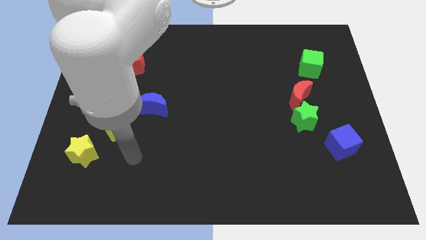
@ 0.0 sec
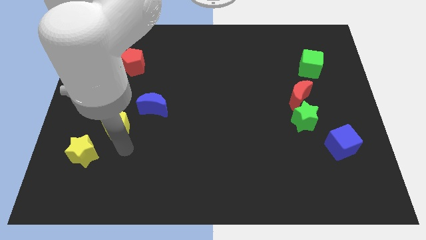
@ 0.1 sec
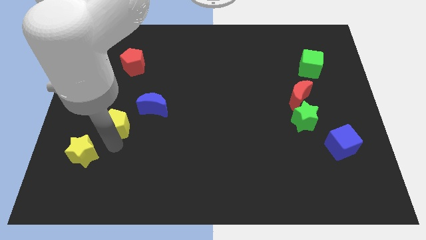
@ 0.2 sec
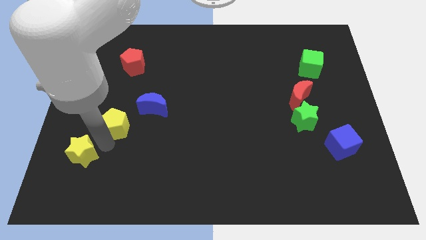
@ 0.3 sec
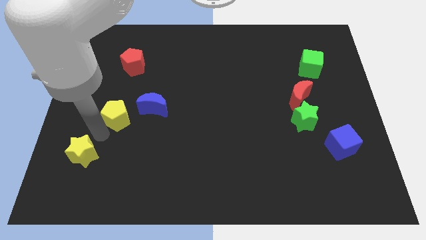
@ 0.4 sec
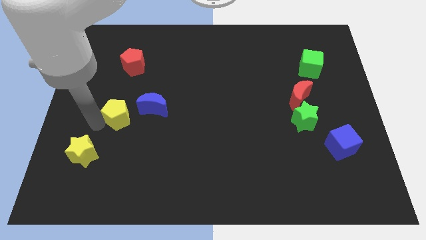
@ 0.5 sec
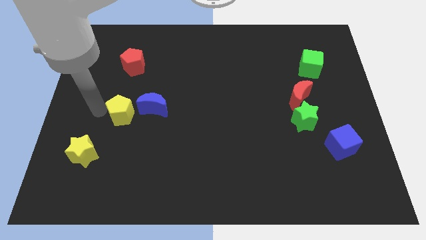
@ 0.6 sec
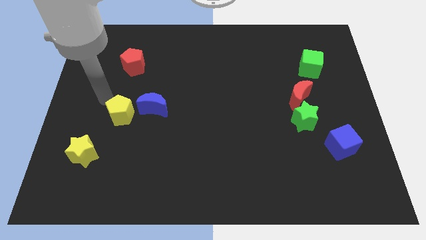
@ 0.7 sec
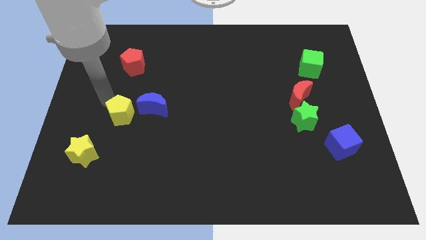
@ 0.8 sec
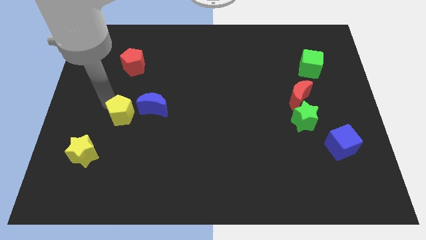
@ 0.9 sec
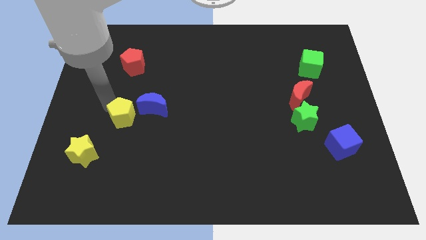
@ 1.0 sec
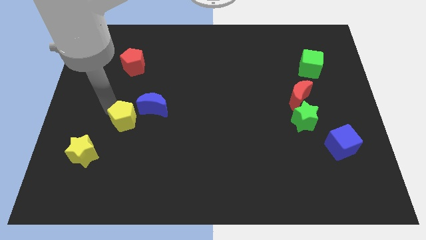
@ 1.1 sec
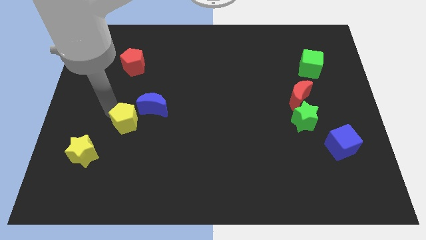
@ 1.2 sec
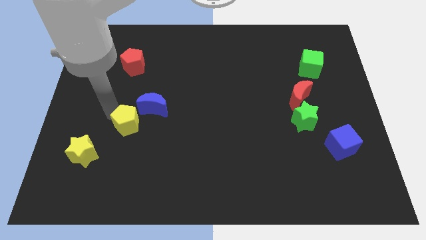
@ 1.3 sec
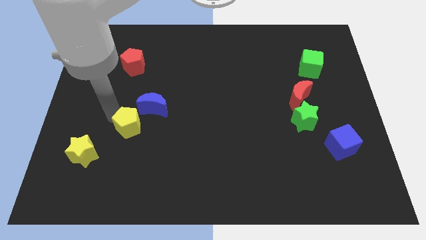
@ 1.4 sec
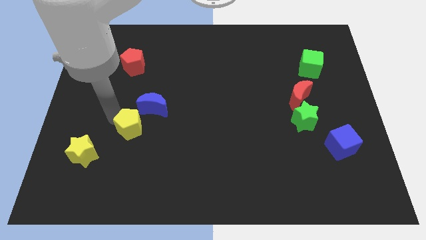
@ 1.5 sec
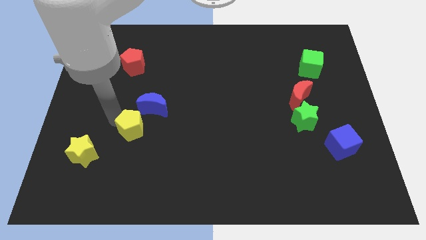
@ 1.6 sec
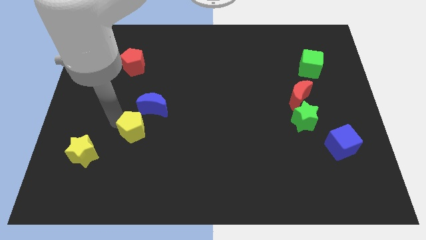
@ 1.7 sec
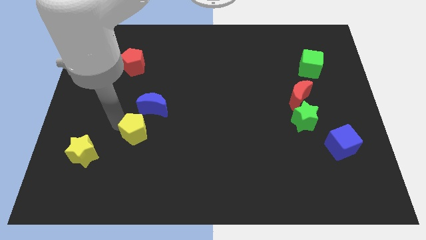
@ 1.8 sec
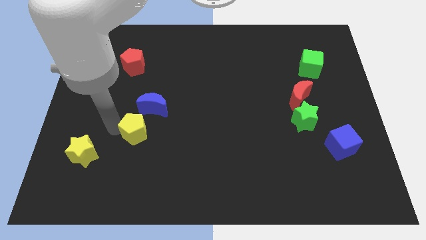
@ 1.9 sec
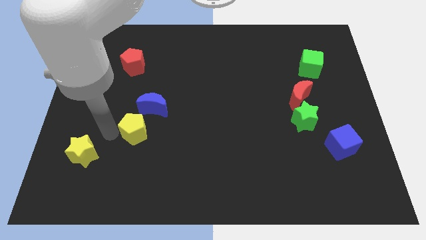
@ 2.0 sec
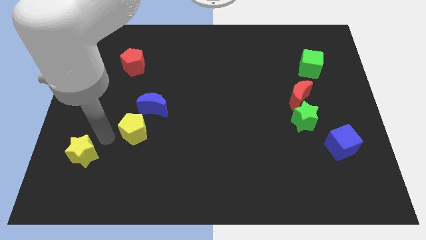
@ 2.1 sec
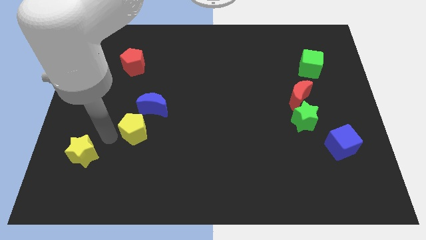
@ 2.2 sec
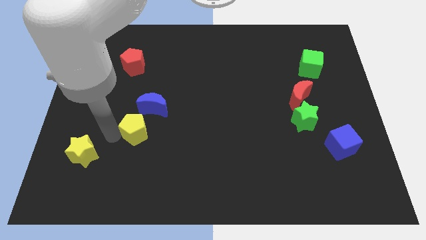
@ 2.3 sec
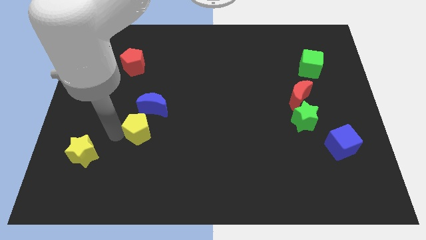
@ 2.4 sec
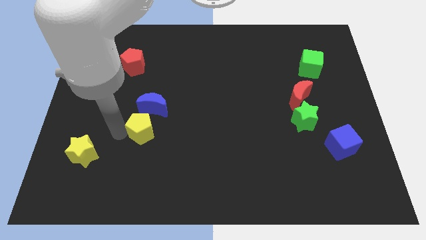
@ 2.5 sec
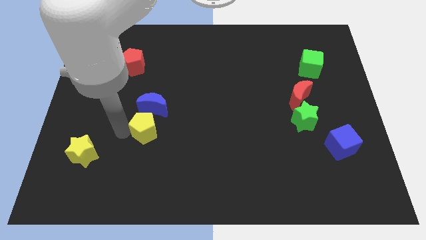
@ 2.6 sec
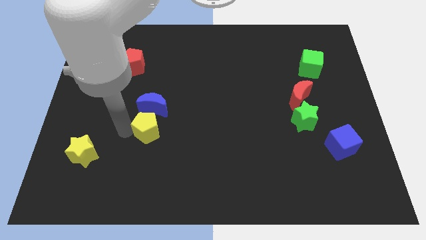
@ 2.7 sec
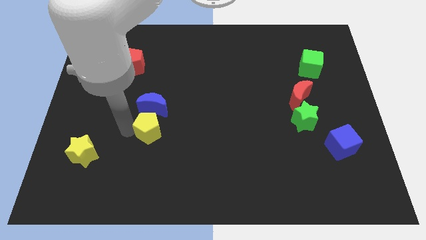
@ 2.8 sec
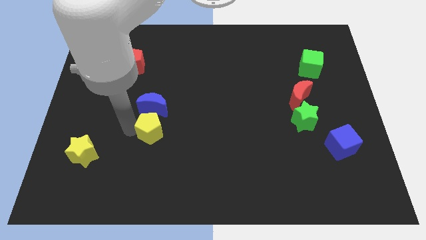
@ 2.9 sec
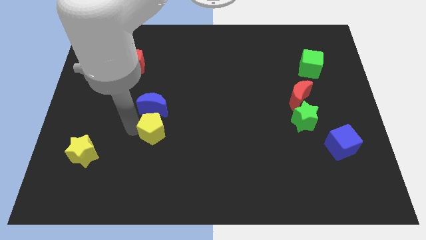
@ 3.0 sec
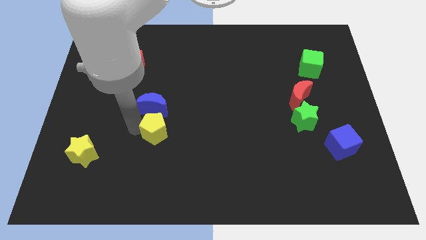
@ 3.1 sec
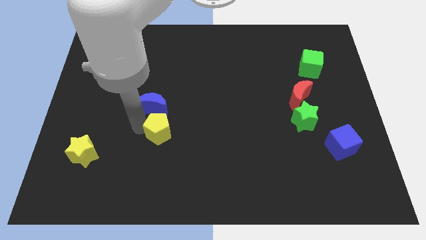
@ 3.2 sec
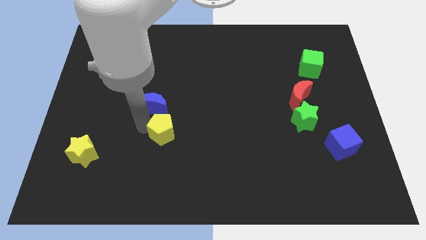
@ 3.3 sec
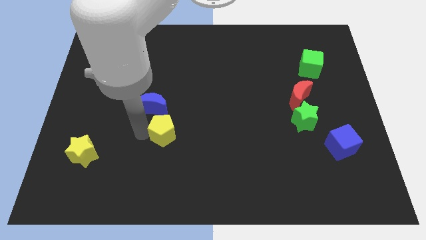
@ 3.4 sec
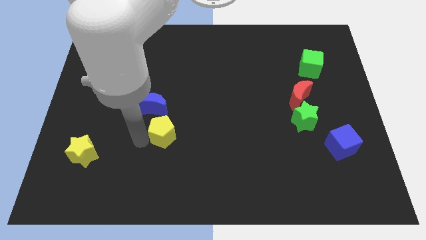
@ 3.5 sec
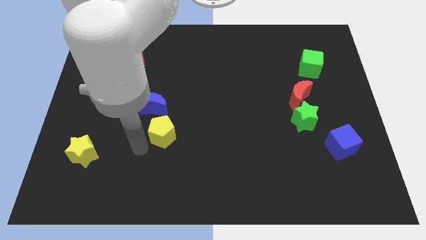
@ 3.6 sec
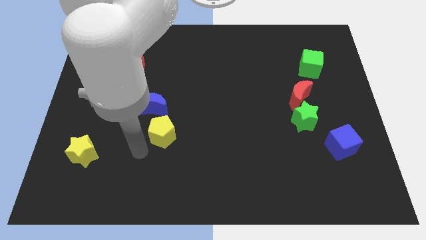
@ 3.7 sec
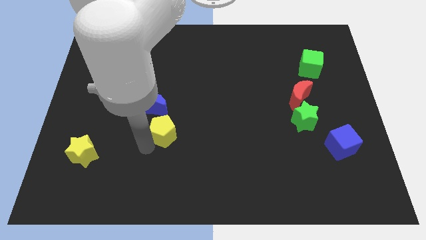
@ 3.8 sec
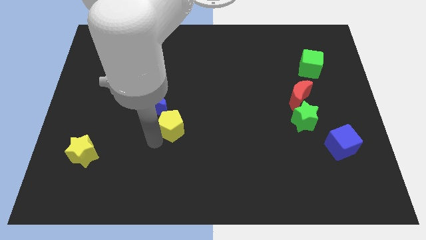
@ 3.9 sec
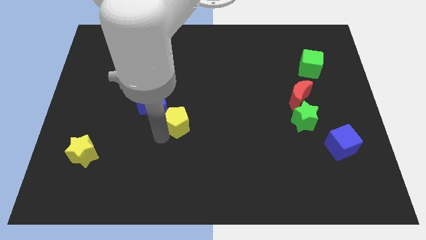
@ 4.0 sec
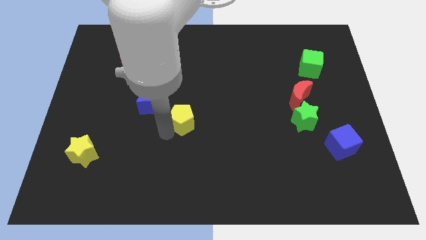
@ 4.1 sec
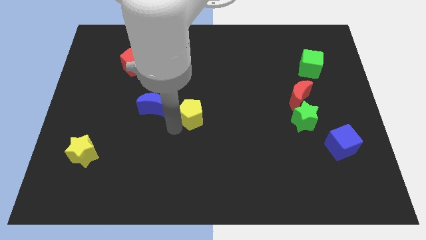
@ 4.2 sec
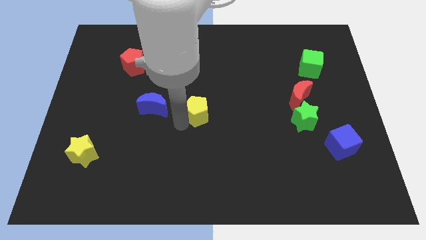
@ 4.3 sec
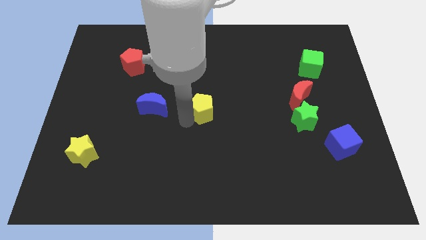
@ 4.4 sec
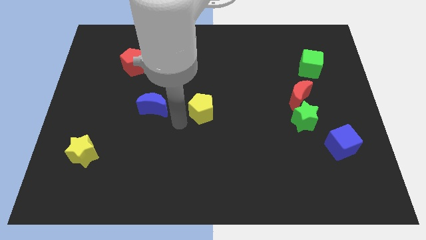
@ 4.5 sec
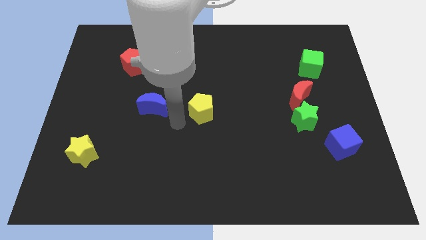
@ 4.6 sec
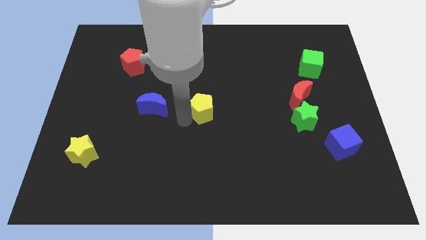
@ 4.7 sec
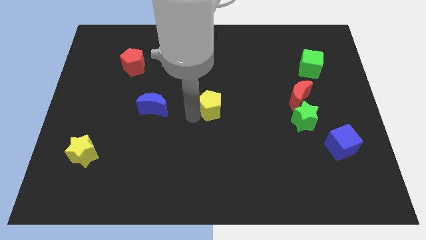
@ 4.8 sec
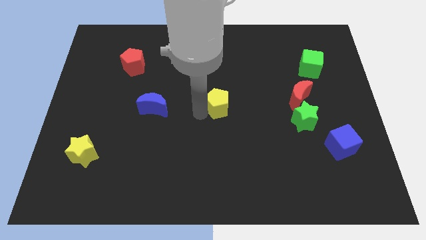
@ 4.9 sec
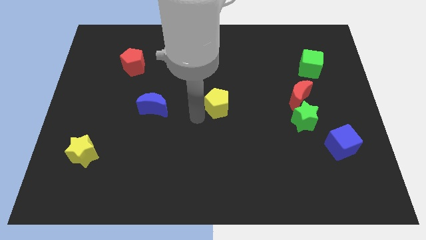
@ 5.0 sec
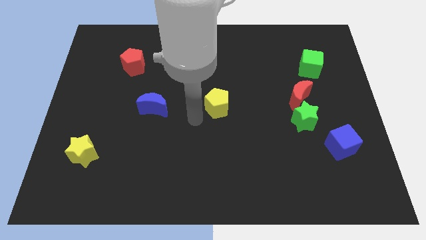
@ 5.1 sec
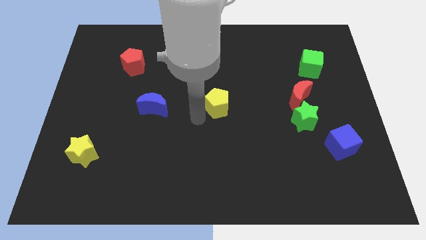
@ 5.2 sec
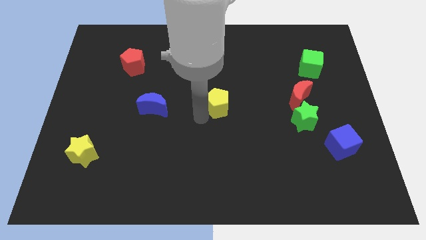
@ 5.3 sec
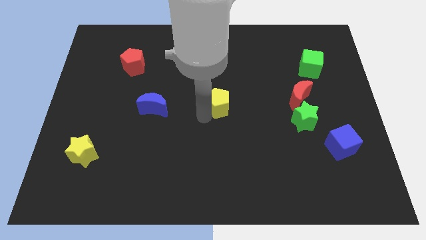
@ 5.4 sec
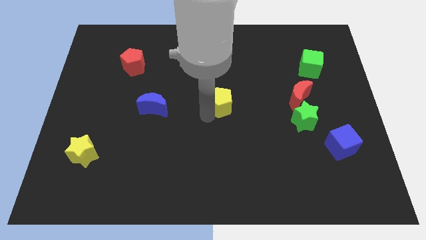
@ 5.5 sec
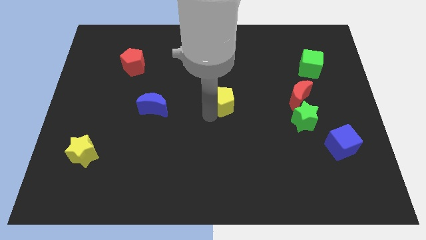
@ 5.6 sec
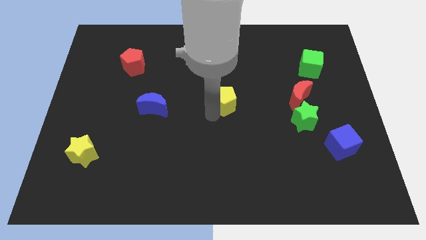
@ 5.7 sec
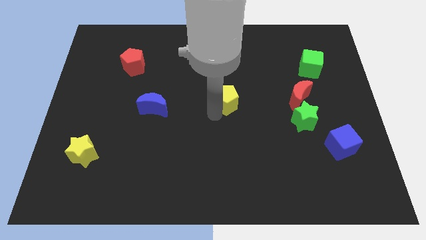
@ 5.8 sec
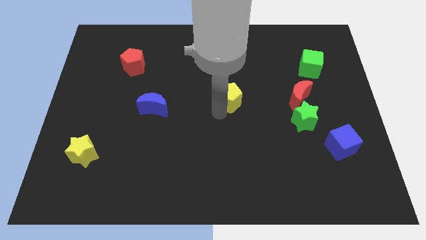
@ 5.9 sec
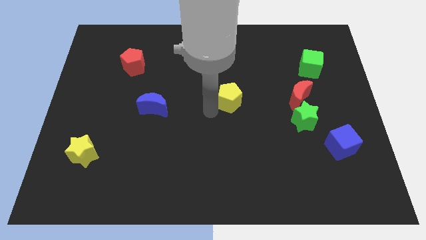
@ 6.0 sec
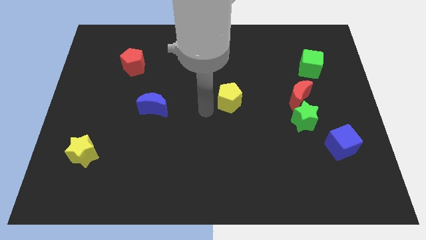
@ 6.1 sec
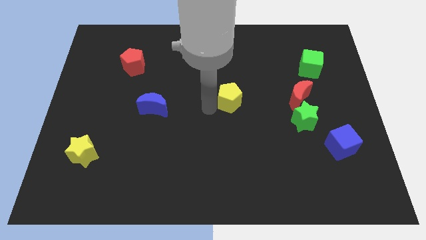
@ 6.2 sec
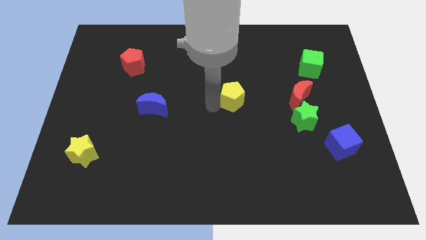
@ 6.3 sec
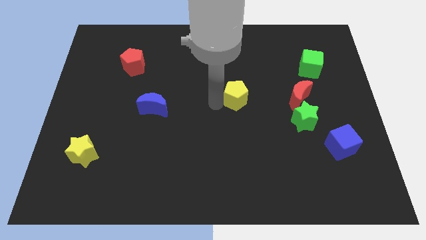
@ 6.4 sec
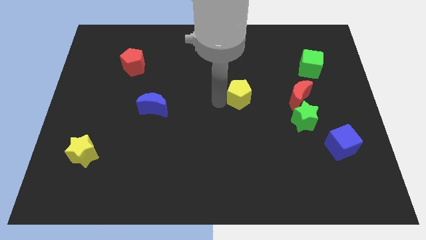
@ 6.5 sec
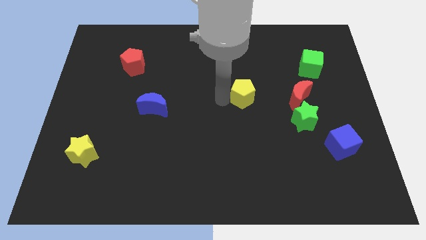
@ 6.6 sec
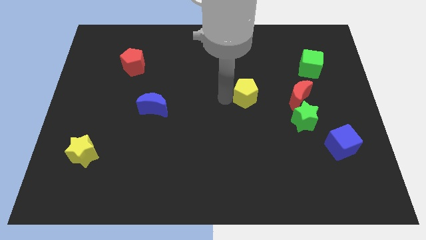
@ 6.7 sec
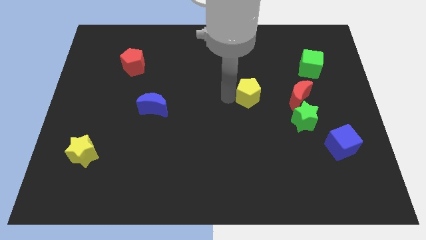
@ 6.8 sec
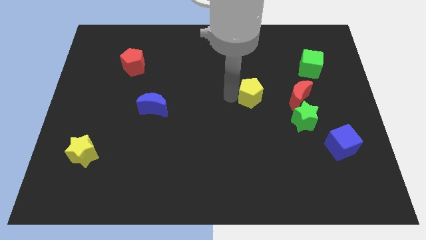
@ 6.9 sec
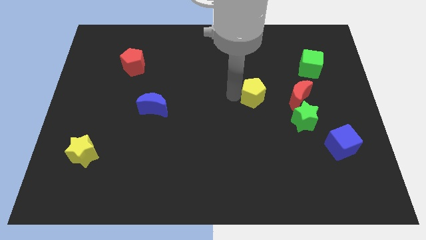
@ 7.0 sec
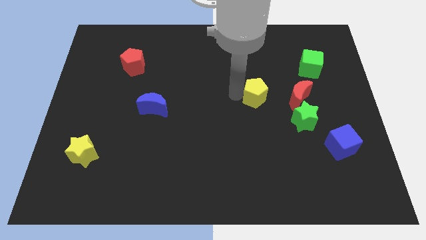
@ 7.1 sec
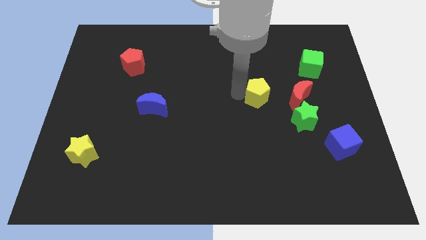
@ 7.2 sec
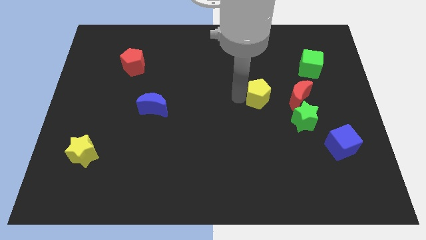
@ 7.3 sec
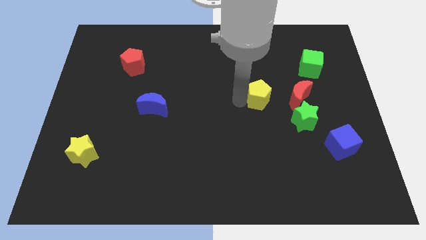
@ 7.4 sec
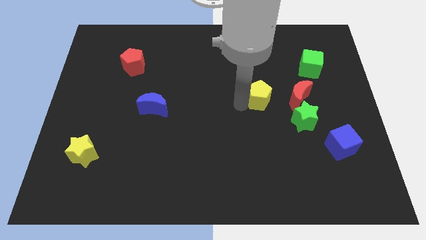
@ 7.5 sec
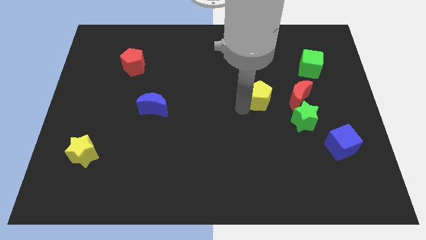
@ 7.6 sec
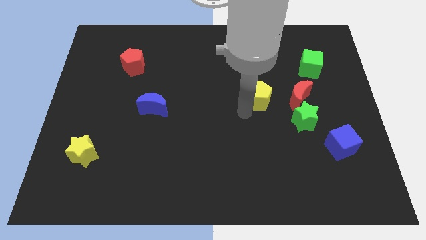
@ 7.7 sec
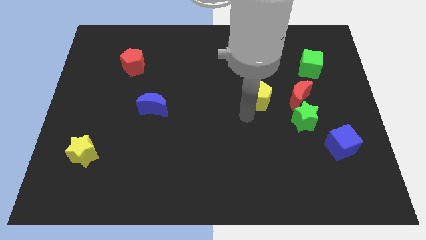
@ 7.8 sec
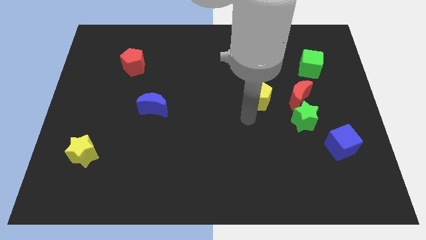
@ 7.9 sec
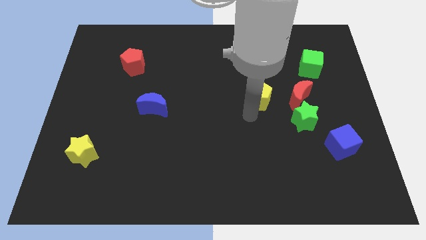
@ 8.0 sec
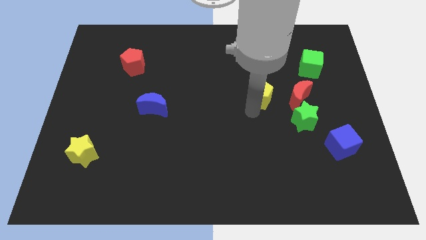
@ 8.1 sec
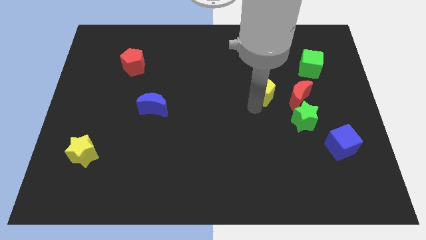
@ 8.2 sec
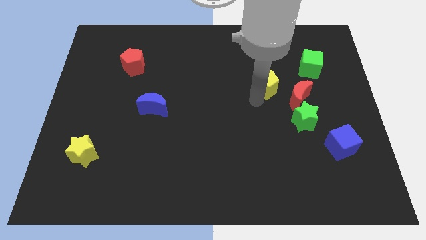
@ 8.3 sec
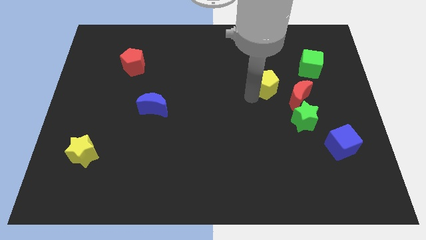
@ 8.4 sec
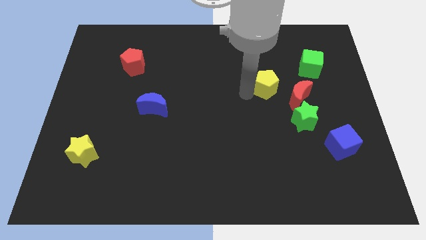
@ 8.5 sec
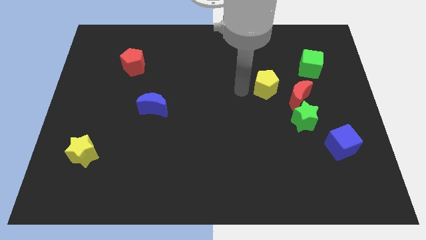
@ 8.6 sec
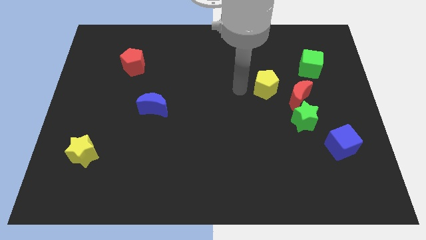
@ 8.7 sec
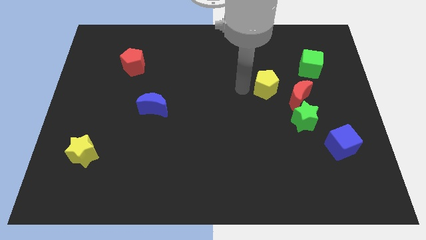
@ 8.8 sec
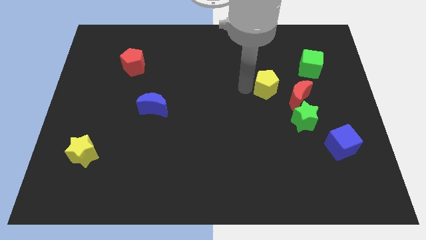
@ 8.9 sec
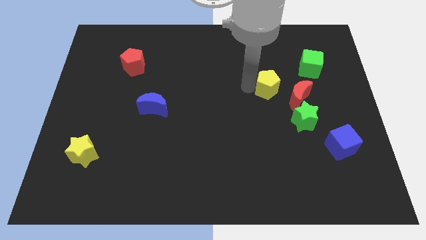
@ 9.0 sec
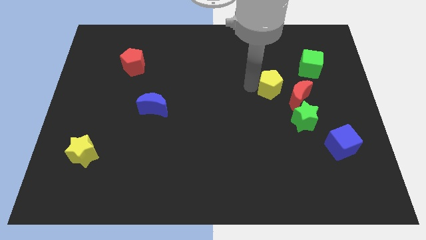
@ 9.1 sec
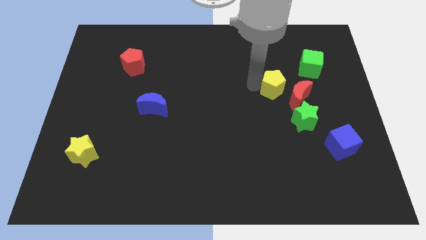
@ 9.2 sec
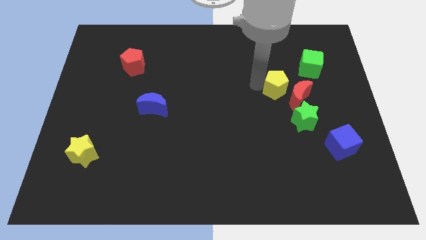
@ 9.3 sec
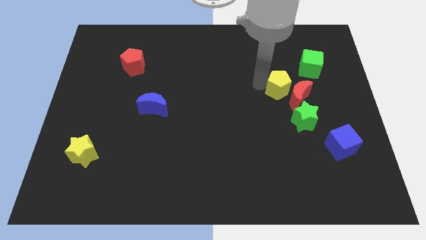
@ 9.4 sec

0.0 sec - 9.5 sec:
slide the yellow pentagon to the top side of the green star
